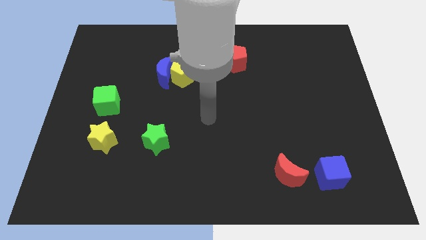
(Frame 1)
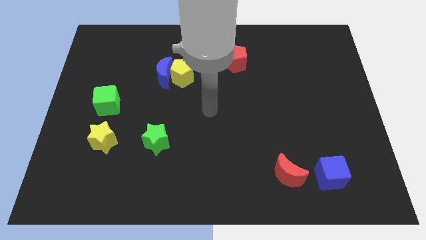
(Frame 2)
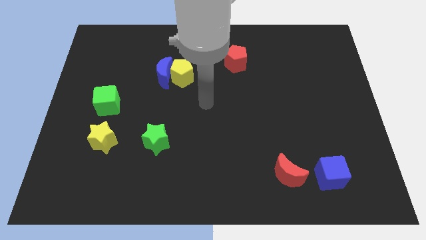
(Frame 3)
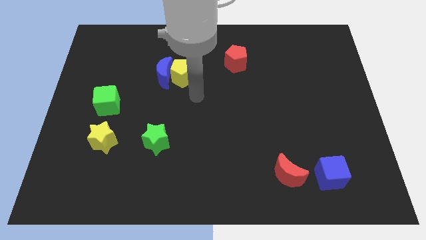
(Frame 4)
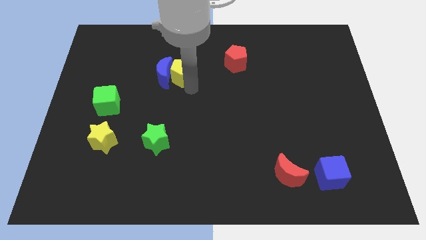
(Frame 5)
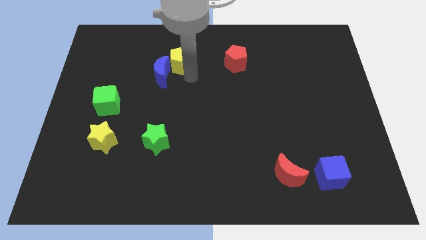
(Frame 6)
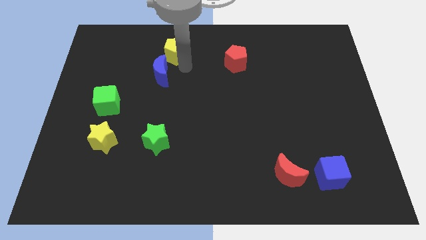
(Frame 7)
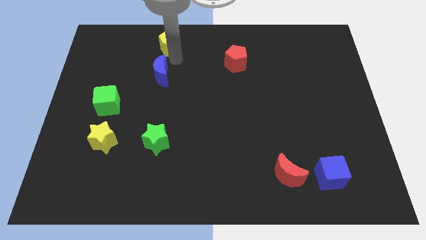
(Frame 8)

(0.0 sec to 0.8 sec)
pull the blue moon apart from the yellow pentagon

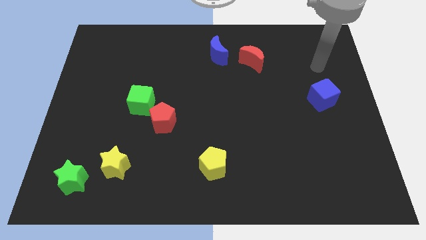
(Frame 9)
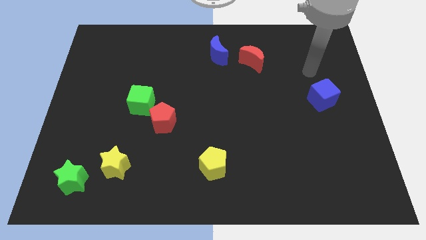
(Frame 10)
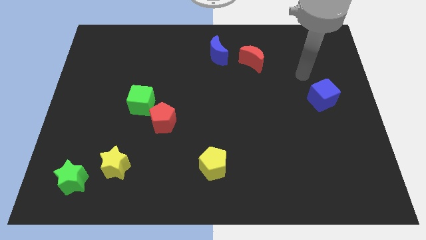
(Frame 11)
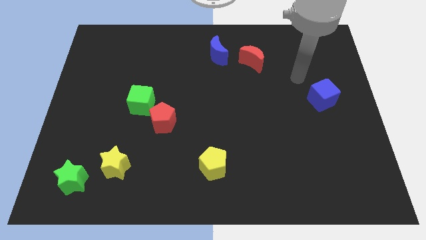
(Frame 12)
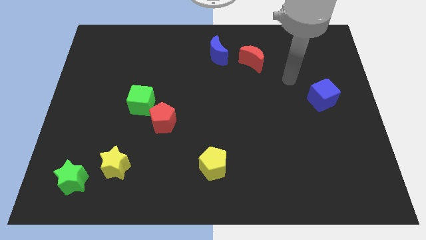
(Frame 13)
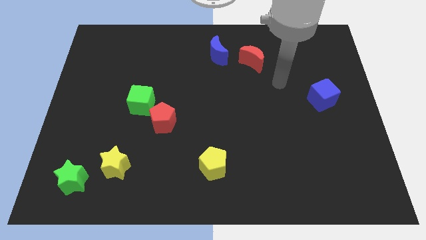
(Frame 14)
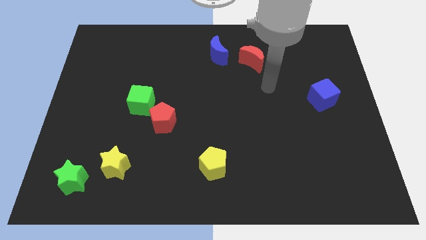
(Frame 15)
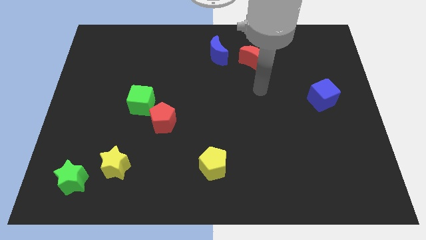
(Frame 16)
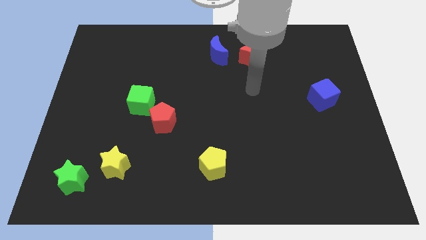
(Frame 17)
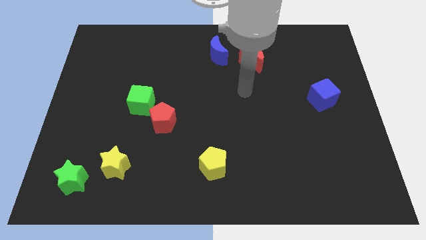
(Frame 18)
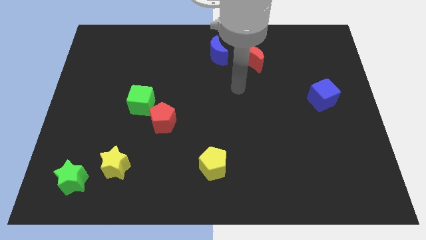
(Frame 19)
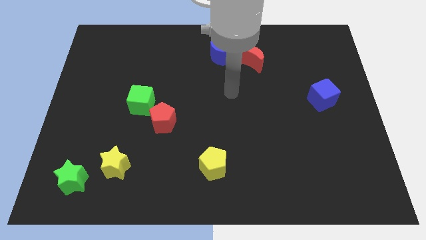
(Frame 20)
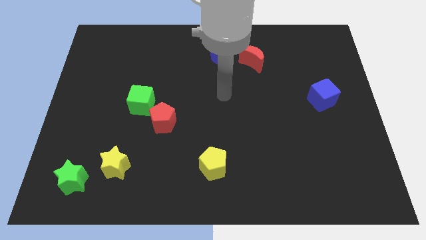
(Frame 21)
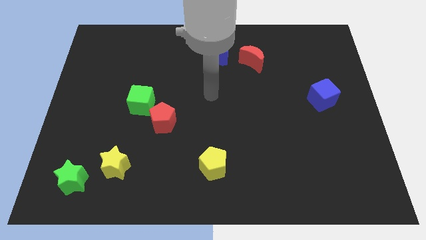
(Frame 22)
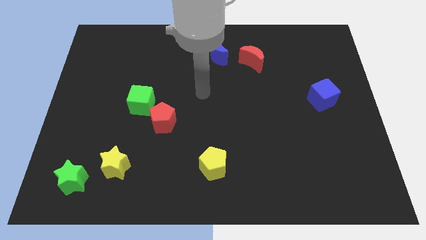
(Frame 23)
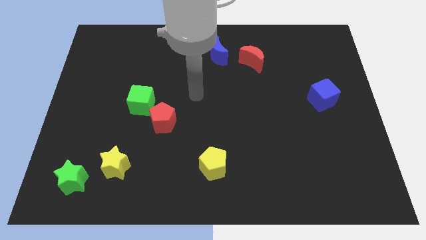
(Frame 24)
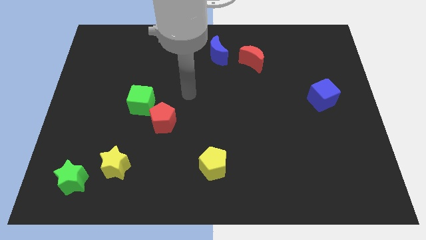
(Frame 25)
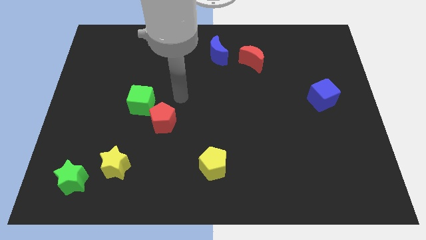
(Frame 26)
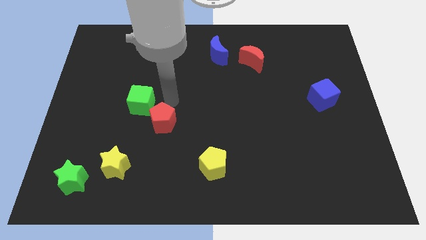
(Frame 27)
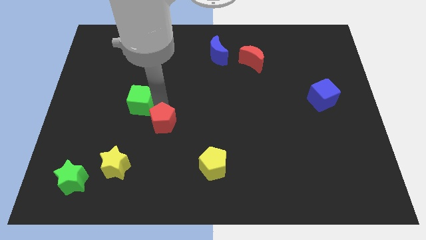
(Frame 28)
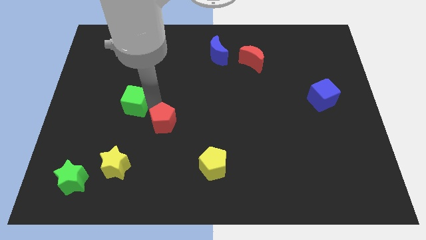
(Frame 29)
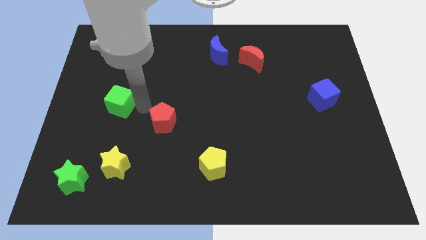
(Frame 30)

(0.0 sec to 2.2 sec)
separate the red pentagon from the green cube

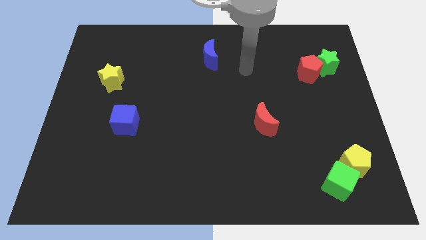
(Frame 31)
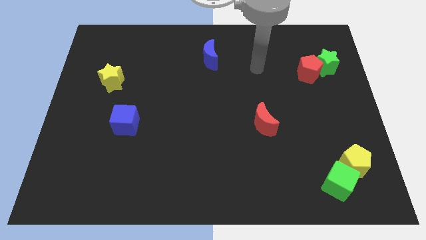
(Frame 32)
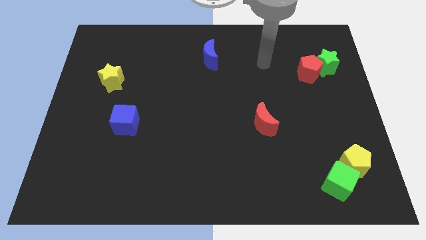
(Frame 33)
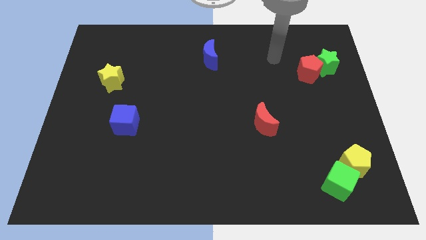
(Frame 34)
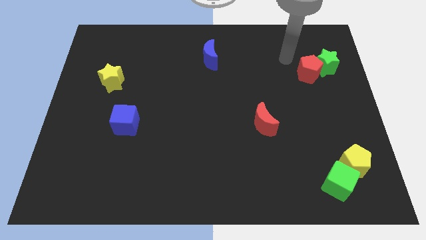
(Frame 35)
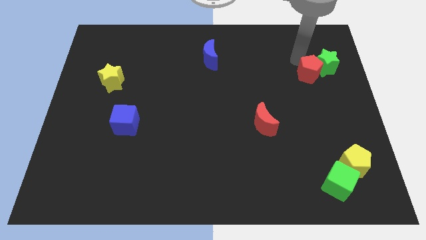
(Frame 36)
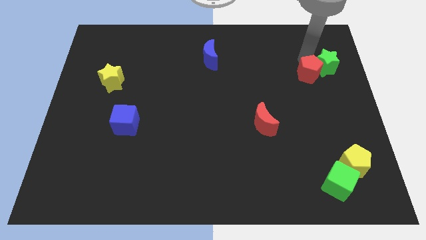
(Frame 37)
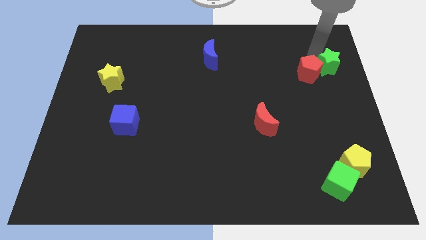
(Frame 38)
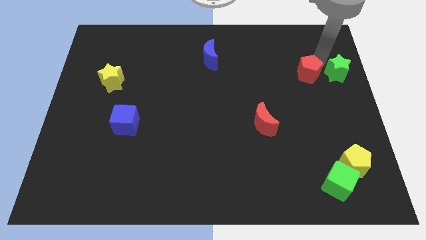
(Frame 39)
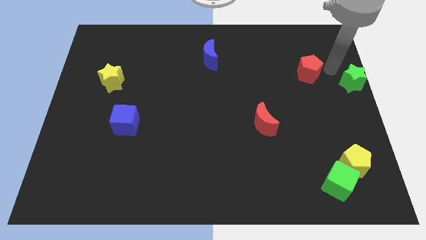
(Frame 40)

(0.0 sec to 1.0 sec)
separate the red pentagon from the green star

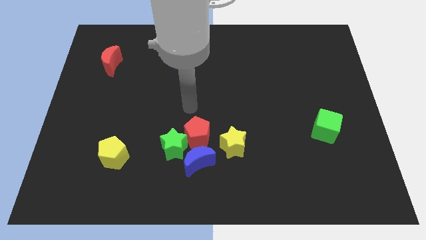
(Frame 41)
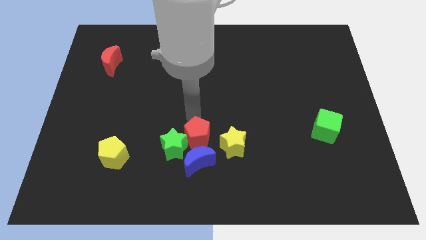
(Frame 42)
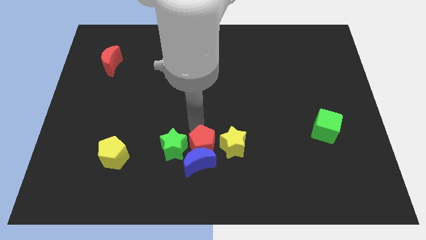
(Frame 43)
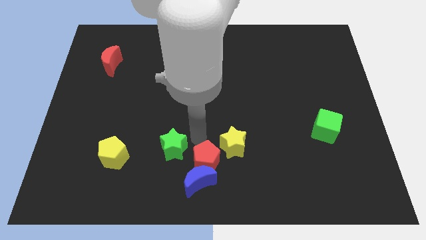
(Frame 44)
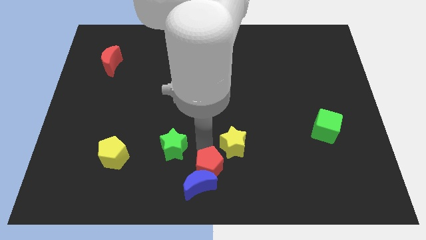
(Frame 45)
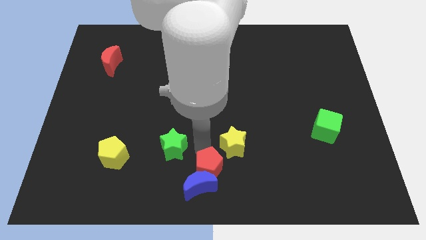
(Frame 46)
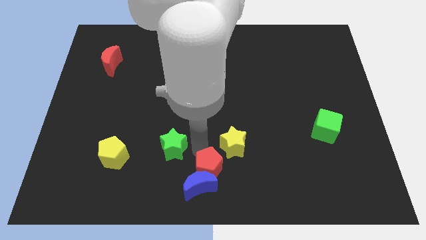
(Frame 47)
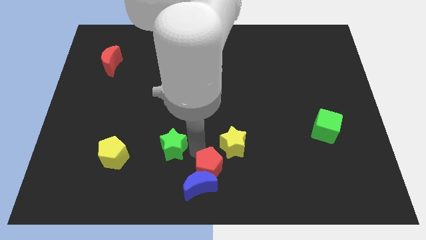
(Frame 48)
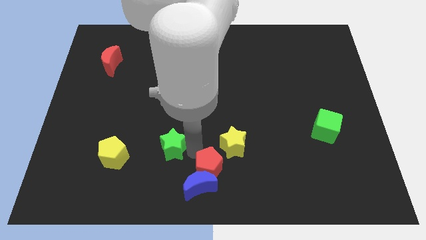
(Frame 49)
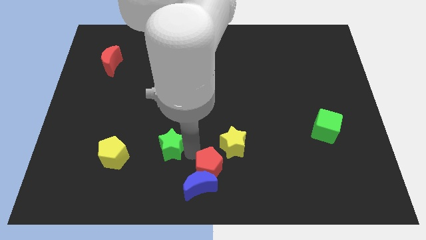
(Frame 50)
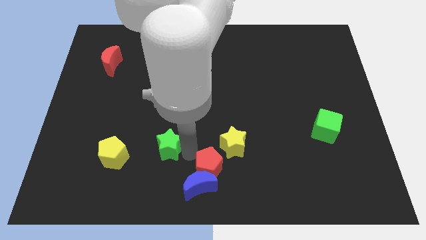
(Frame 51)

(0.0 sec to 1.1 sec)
move the green star away from the red pentagon and blue moon

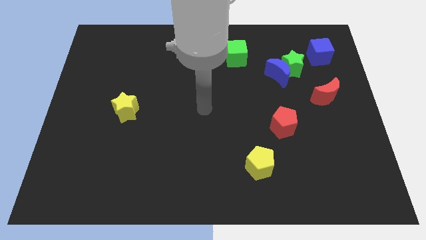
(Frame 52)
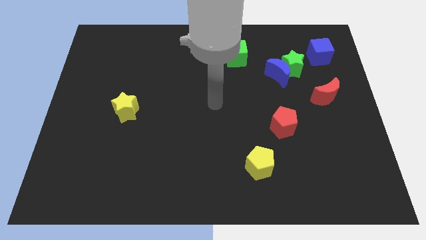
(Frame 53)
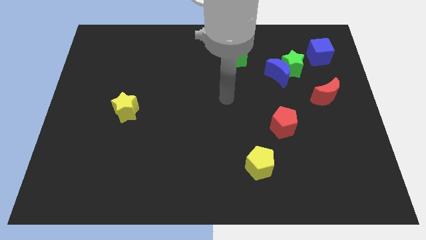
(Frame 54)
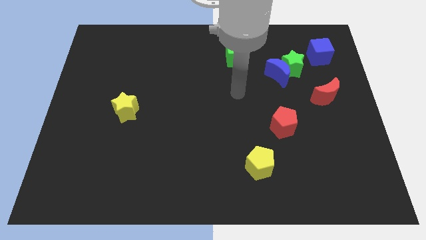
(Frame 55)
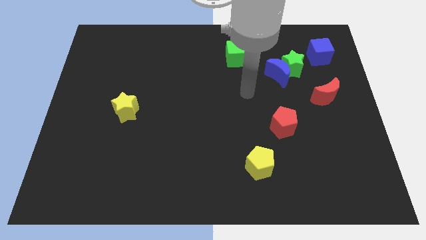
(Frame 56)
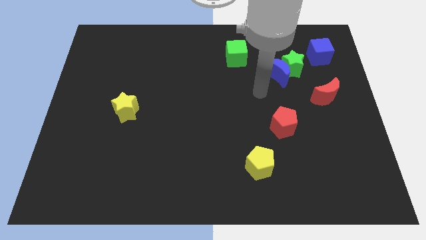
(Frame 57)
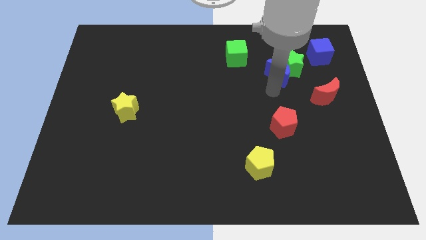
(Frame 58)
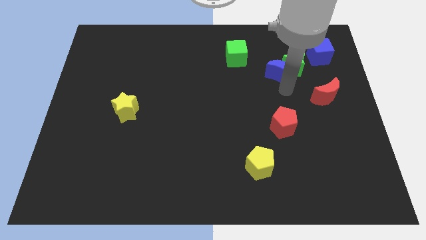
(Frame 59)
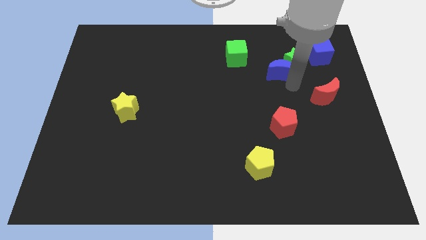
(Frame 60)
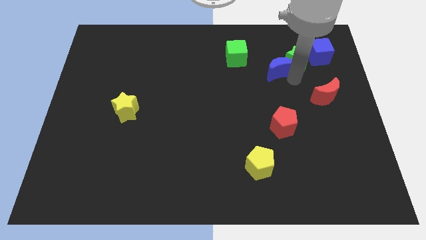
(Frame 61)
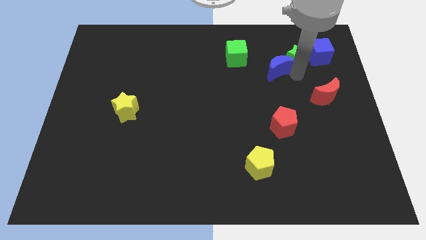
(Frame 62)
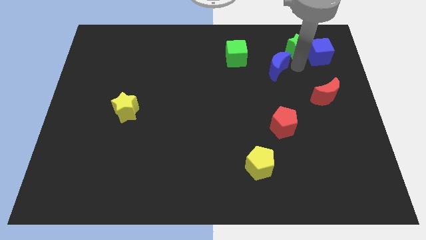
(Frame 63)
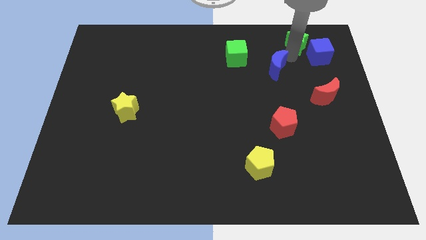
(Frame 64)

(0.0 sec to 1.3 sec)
pull the blue moon apart from the green star

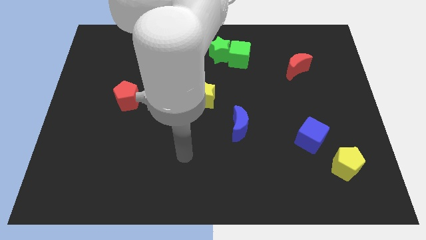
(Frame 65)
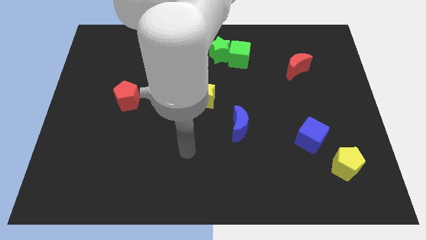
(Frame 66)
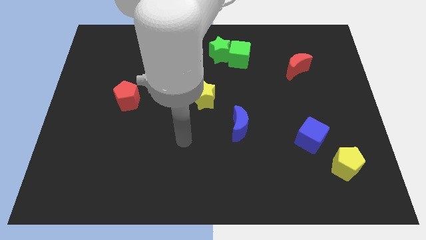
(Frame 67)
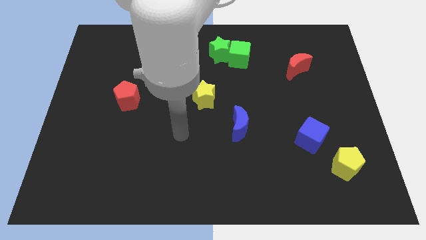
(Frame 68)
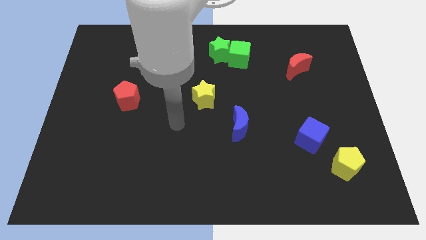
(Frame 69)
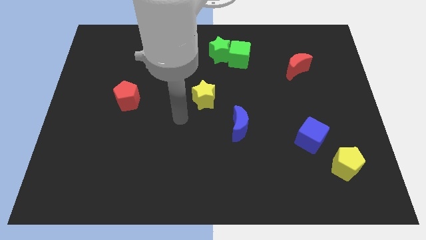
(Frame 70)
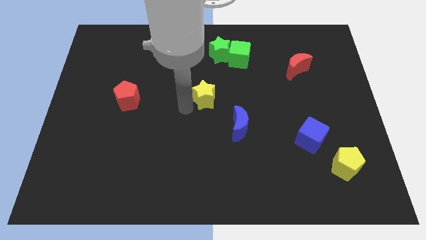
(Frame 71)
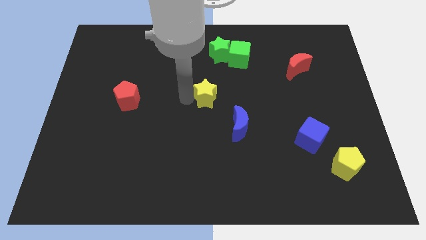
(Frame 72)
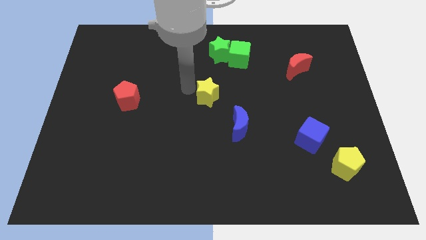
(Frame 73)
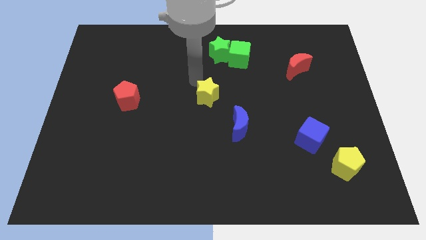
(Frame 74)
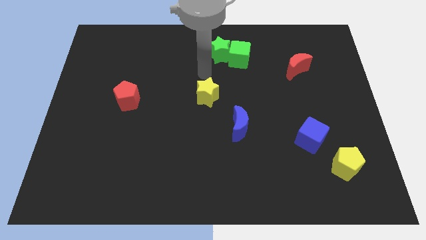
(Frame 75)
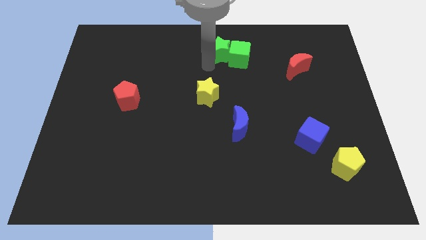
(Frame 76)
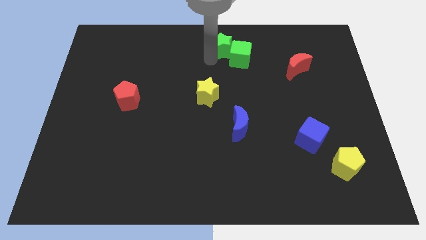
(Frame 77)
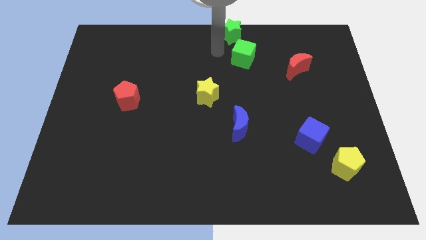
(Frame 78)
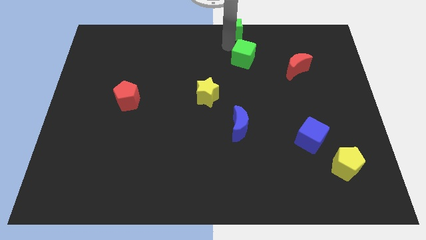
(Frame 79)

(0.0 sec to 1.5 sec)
separate the green cube from the green star

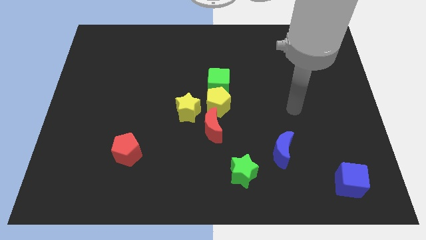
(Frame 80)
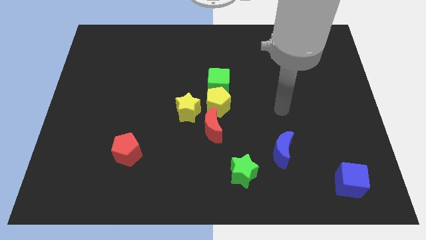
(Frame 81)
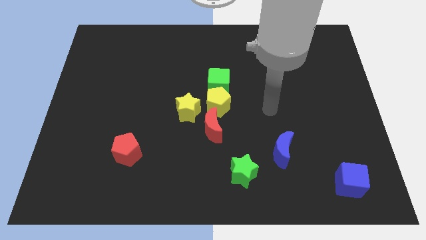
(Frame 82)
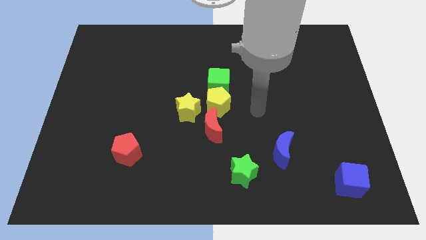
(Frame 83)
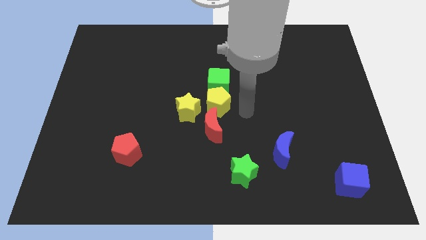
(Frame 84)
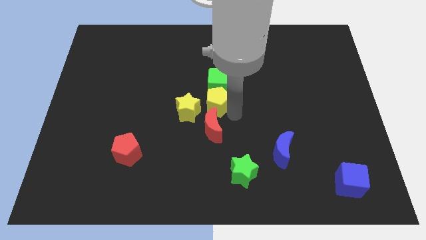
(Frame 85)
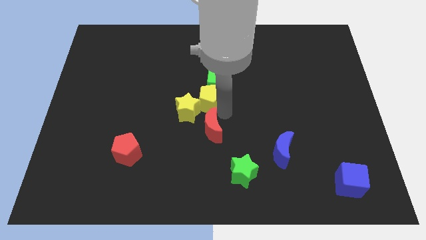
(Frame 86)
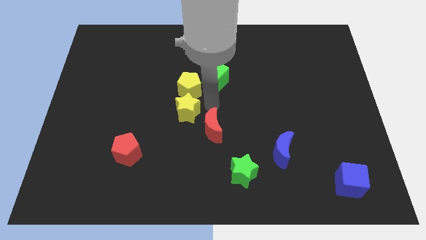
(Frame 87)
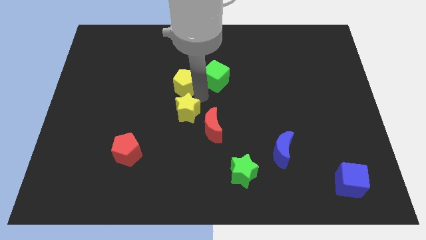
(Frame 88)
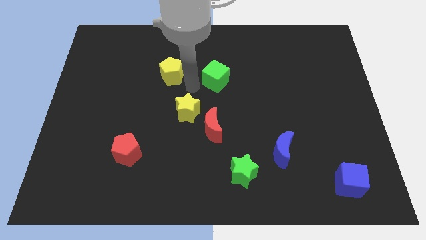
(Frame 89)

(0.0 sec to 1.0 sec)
separate the green cube from the yellow pentagon

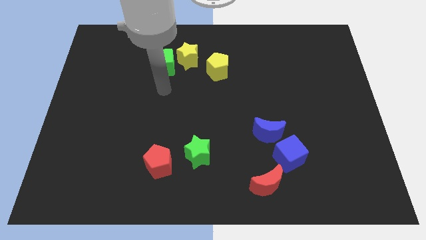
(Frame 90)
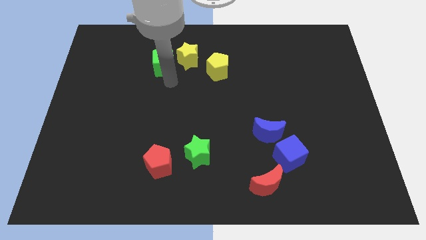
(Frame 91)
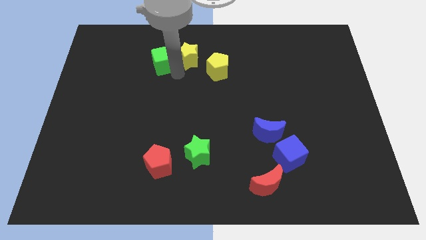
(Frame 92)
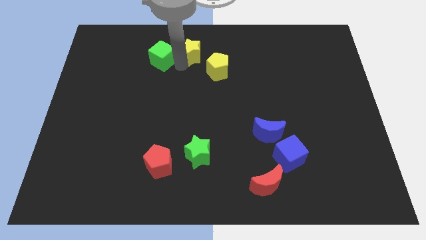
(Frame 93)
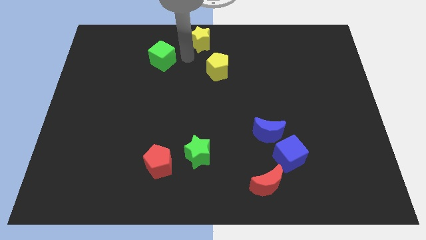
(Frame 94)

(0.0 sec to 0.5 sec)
pull the green cube apart from the yellow star
